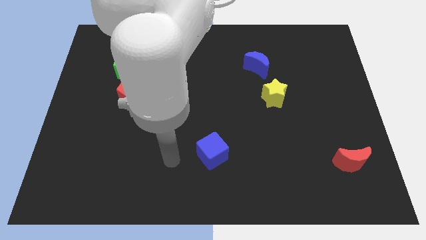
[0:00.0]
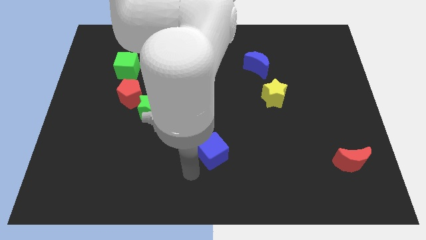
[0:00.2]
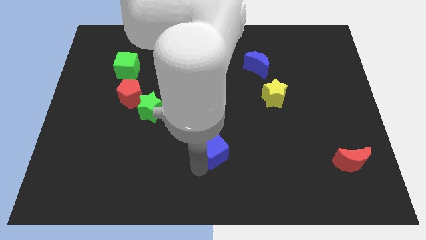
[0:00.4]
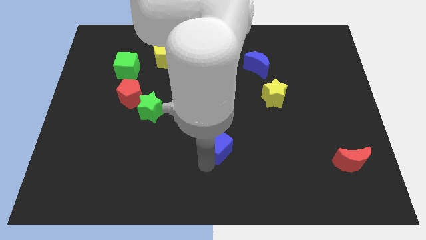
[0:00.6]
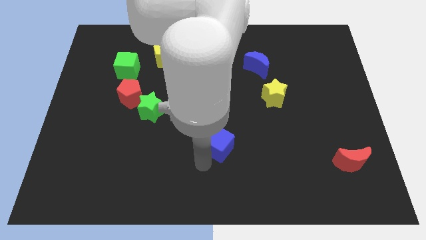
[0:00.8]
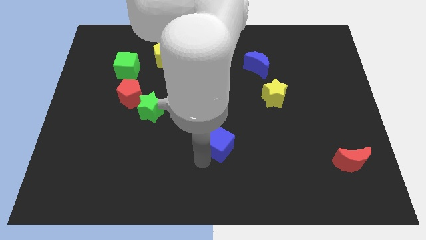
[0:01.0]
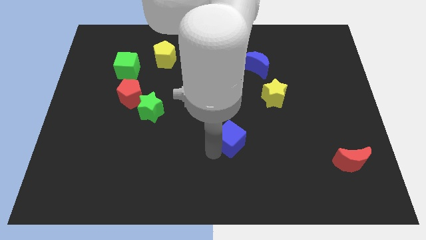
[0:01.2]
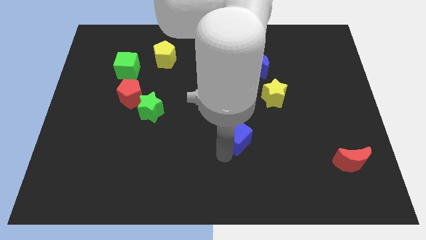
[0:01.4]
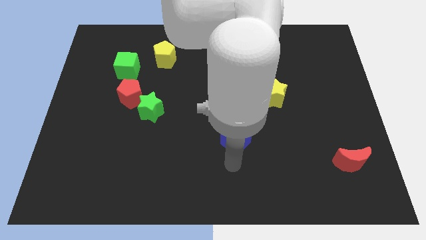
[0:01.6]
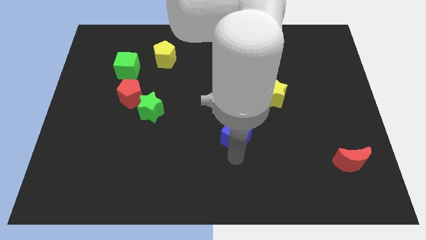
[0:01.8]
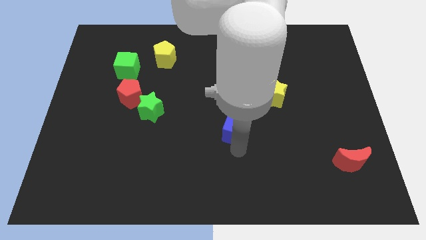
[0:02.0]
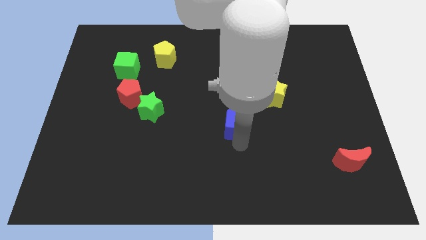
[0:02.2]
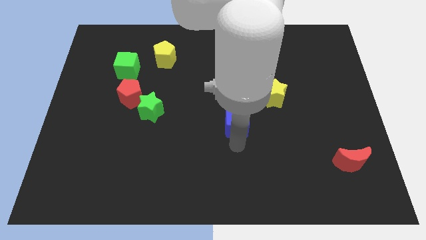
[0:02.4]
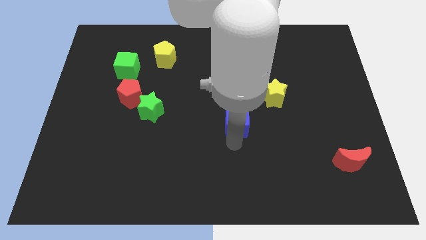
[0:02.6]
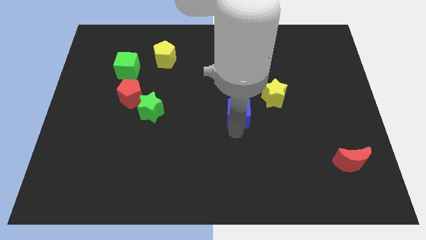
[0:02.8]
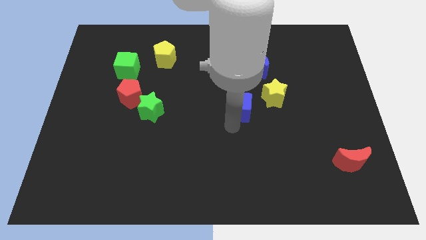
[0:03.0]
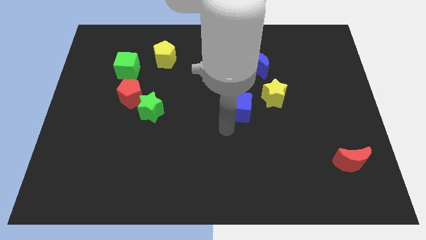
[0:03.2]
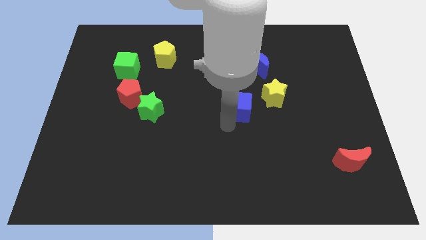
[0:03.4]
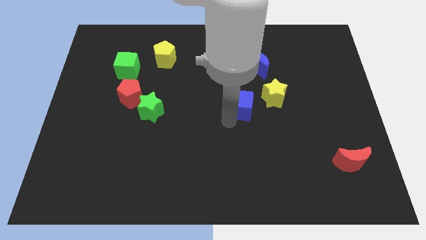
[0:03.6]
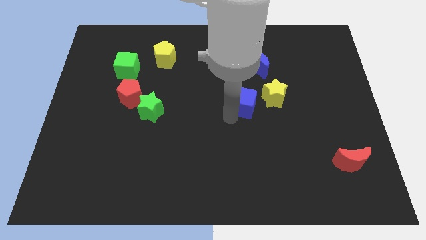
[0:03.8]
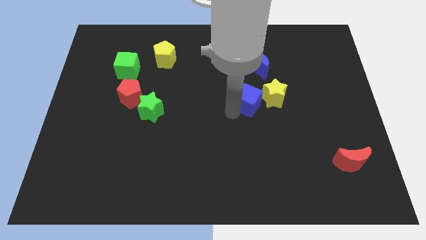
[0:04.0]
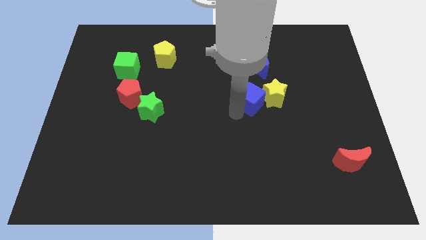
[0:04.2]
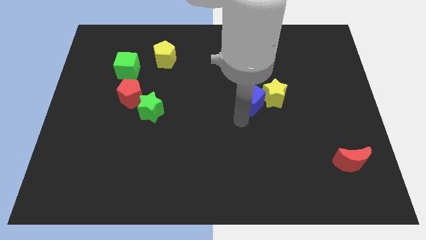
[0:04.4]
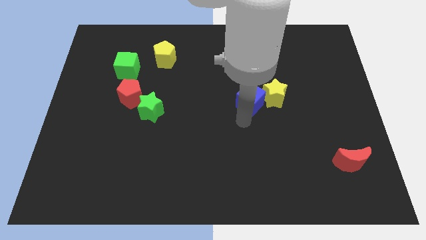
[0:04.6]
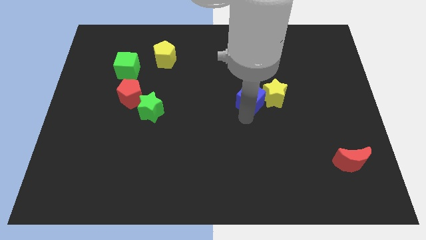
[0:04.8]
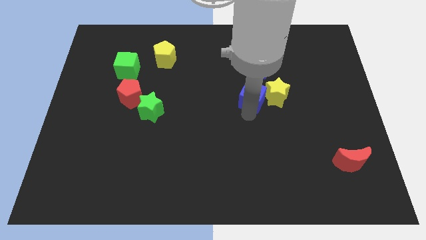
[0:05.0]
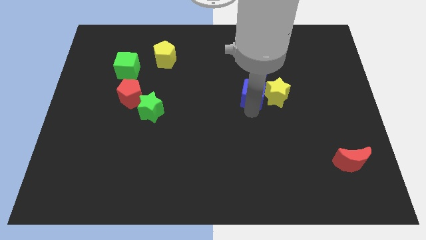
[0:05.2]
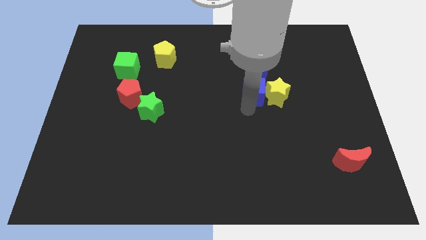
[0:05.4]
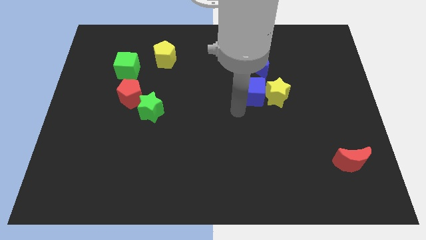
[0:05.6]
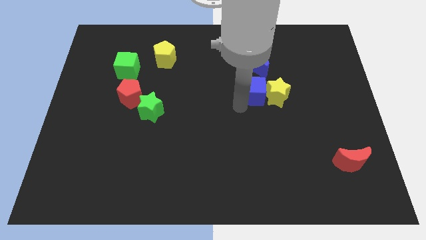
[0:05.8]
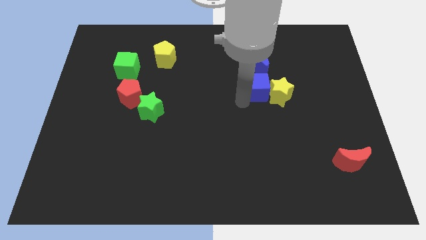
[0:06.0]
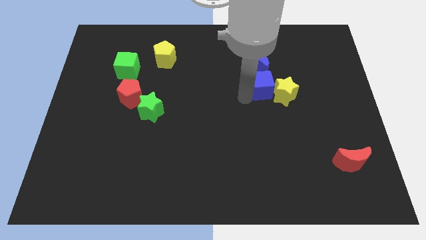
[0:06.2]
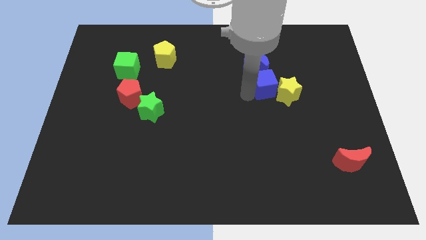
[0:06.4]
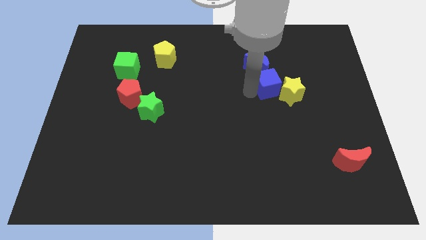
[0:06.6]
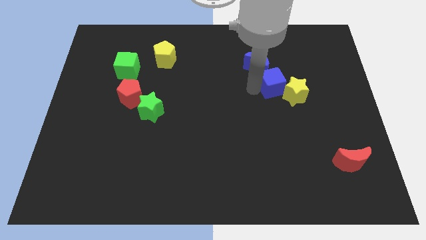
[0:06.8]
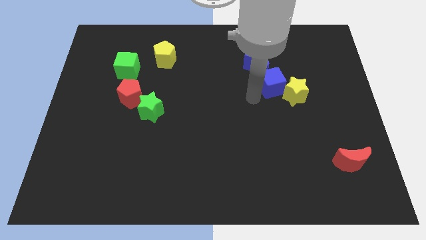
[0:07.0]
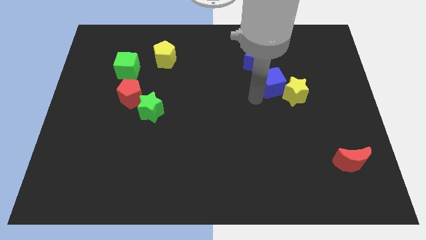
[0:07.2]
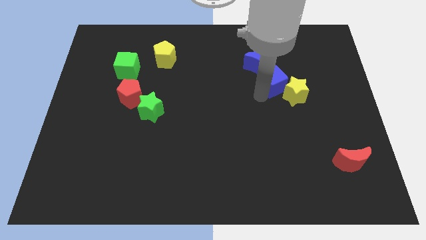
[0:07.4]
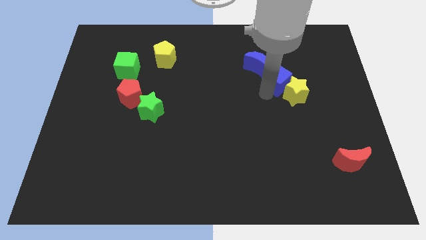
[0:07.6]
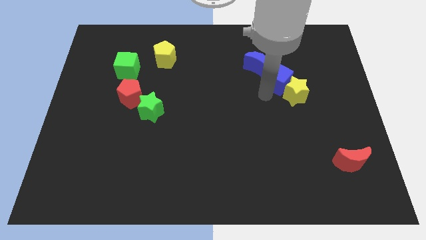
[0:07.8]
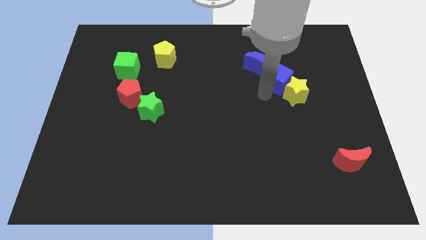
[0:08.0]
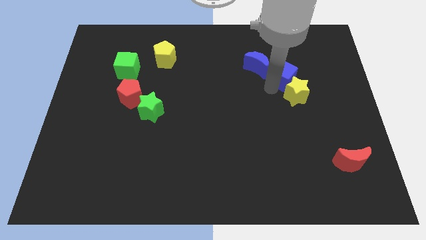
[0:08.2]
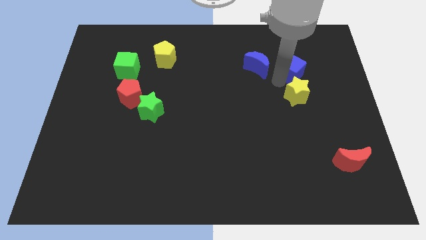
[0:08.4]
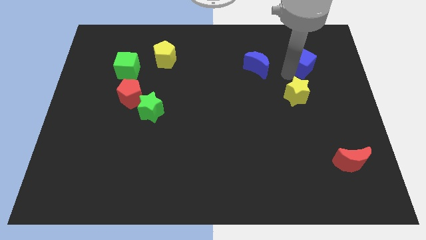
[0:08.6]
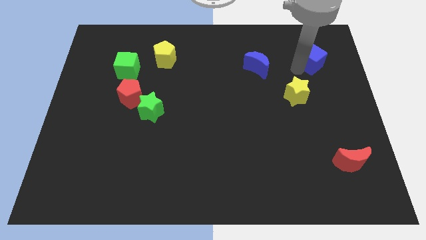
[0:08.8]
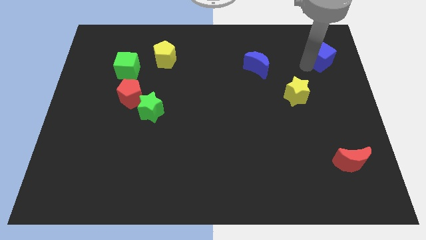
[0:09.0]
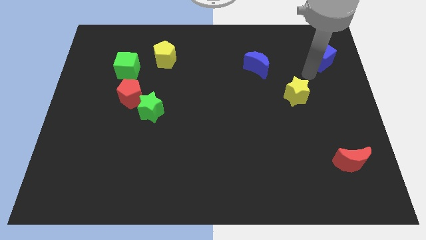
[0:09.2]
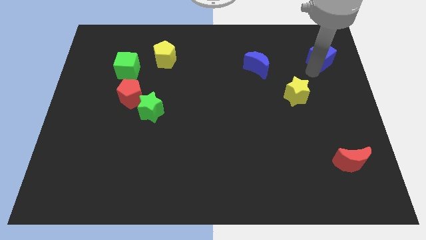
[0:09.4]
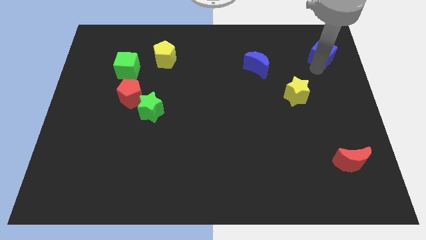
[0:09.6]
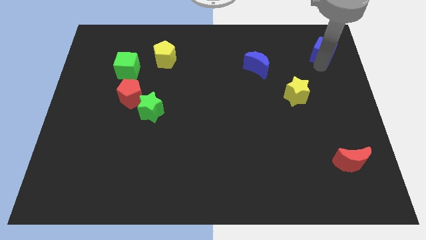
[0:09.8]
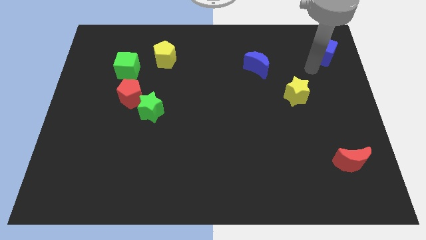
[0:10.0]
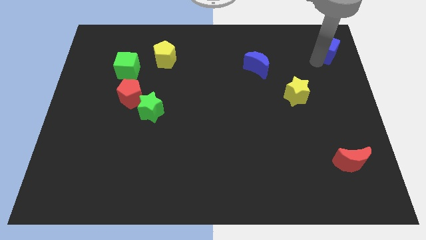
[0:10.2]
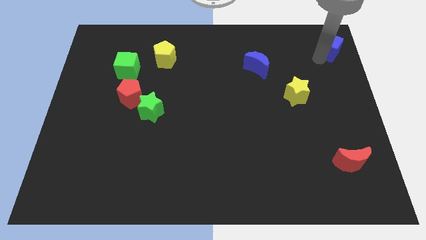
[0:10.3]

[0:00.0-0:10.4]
move the blue cube to the upper right corner

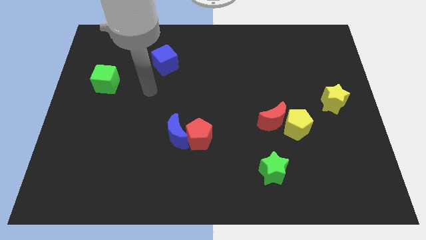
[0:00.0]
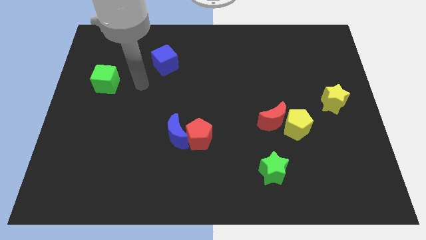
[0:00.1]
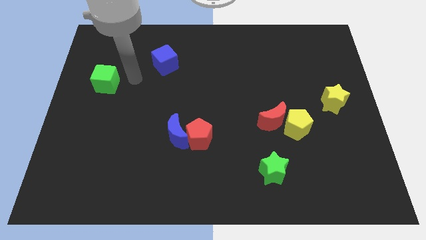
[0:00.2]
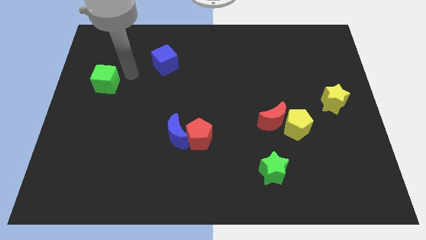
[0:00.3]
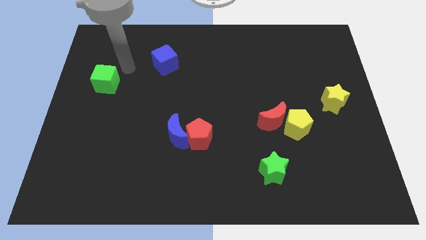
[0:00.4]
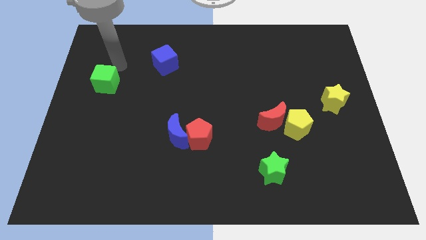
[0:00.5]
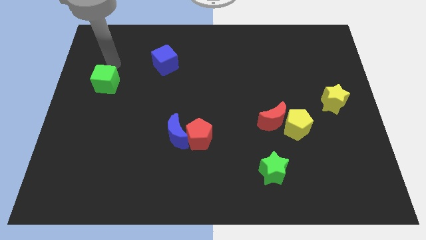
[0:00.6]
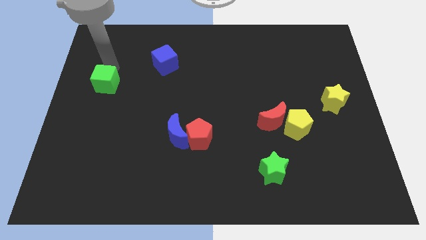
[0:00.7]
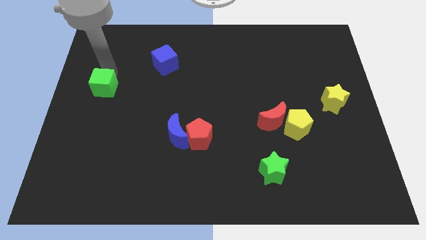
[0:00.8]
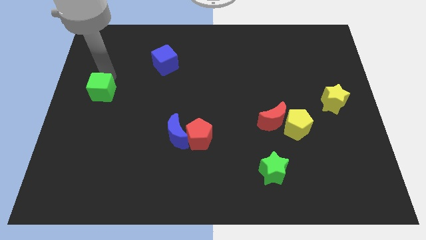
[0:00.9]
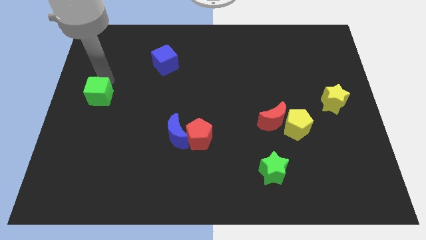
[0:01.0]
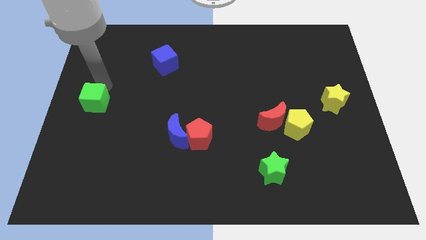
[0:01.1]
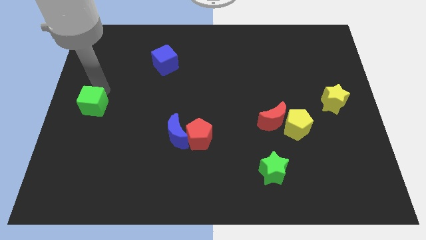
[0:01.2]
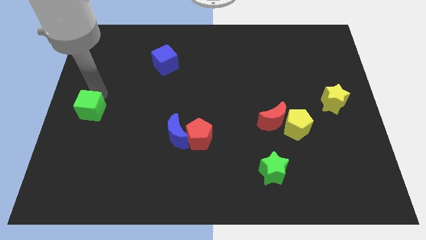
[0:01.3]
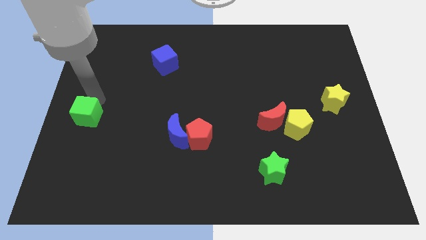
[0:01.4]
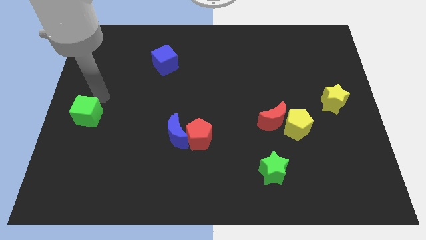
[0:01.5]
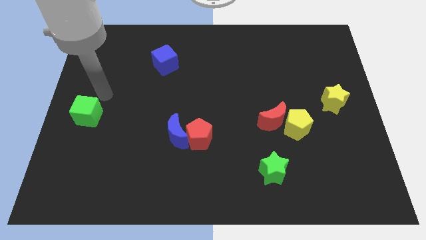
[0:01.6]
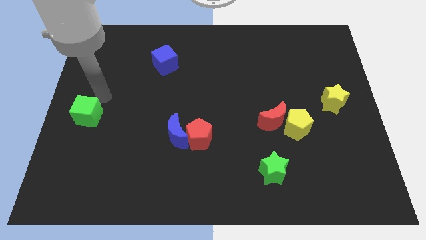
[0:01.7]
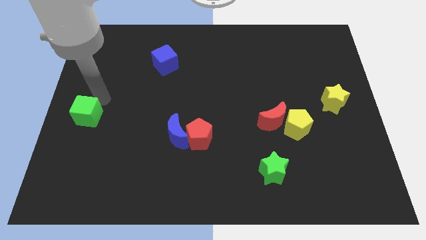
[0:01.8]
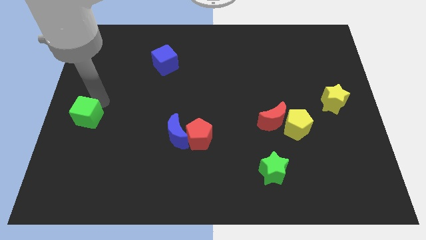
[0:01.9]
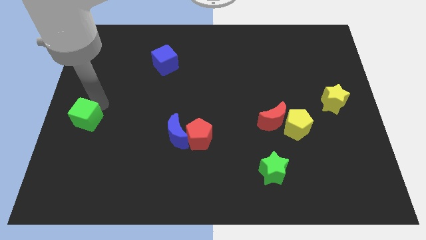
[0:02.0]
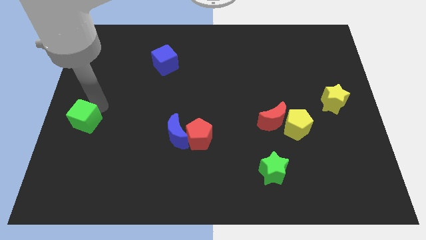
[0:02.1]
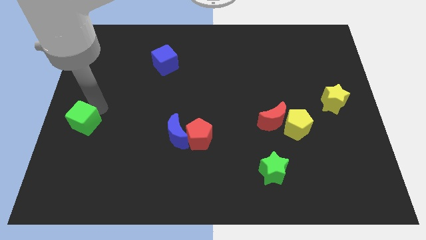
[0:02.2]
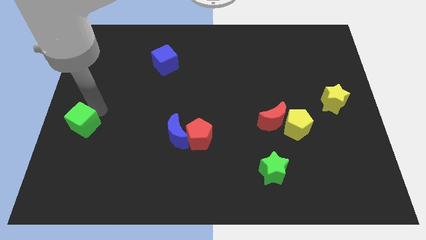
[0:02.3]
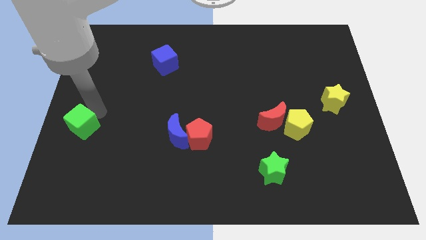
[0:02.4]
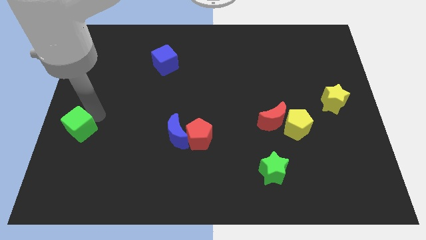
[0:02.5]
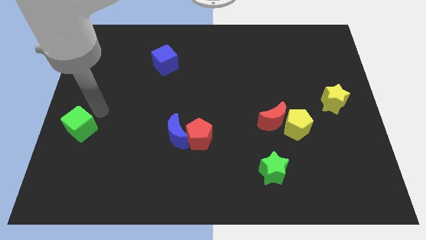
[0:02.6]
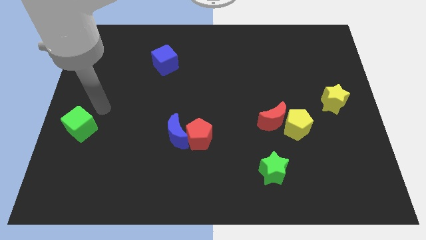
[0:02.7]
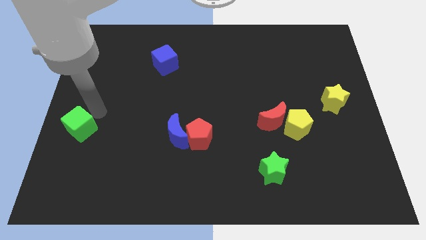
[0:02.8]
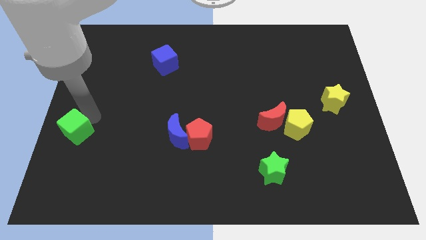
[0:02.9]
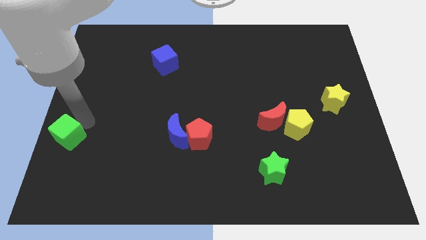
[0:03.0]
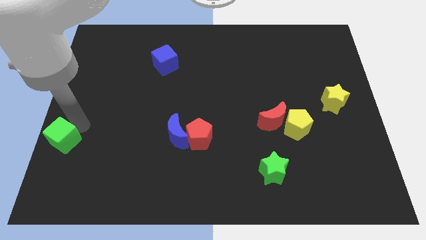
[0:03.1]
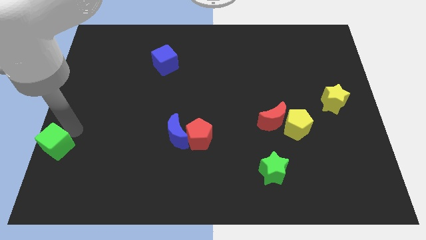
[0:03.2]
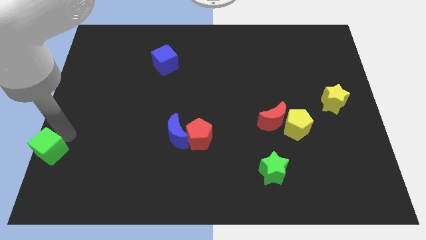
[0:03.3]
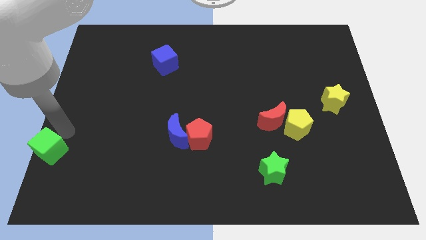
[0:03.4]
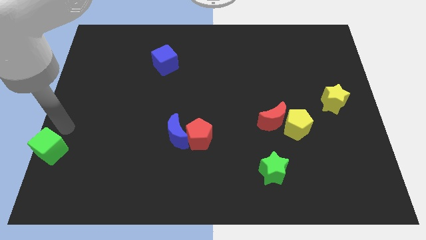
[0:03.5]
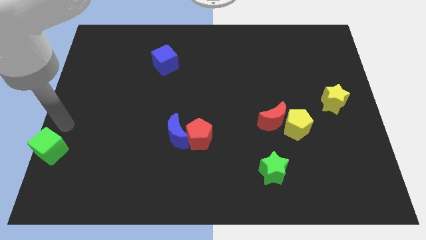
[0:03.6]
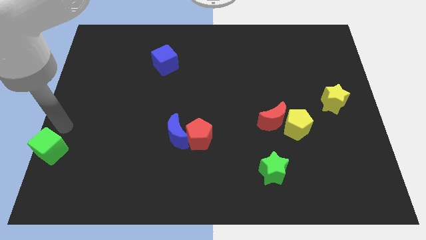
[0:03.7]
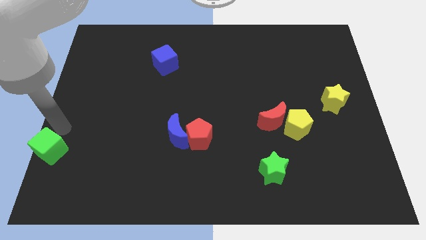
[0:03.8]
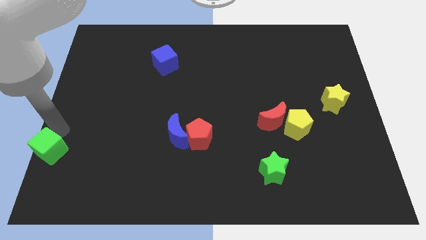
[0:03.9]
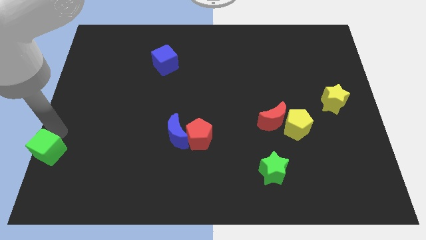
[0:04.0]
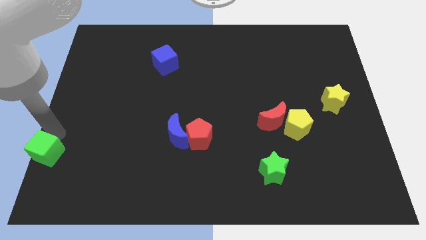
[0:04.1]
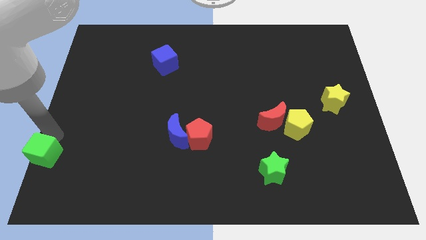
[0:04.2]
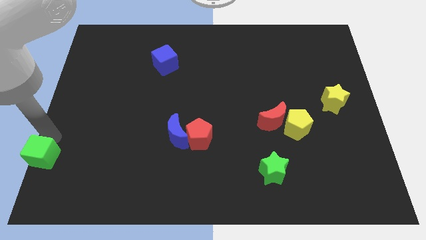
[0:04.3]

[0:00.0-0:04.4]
push the green cube to the bottom left corner
